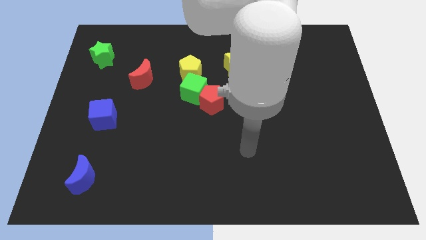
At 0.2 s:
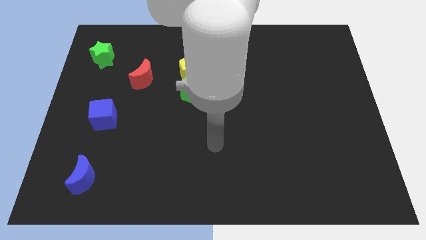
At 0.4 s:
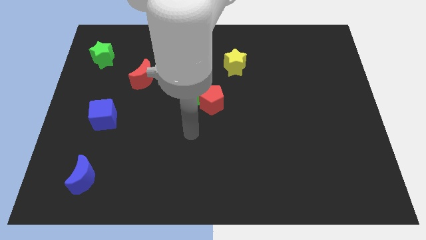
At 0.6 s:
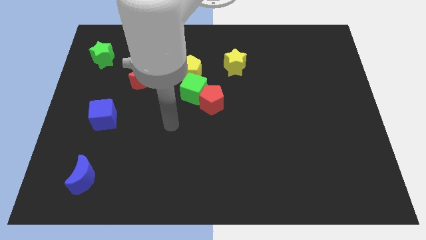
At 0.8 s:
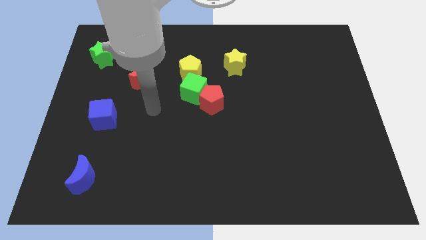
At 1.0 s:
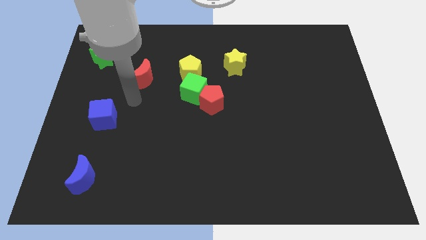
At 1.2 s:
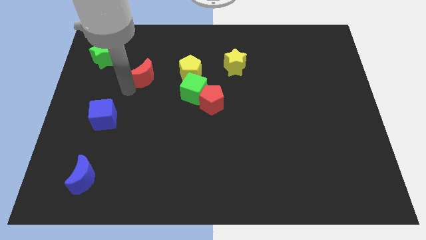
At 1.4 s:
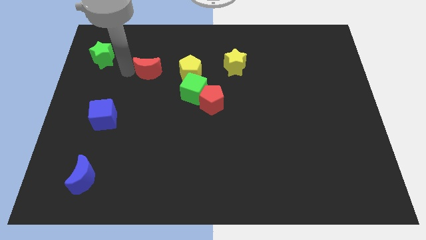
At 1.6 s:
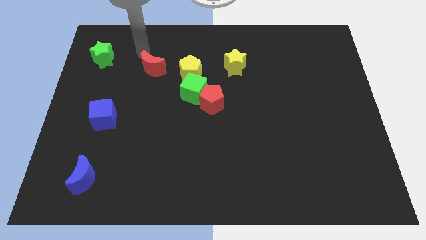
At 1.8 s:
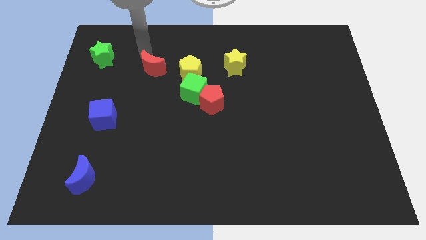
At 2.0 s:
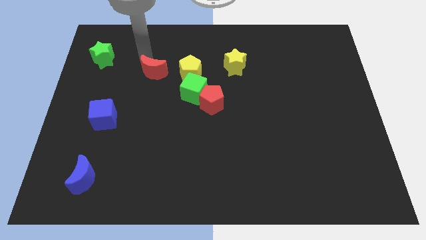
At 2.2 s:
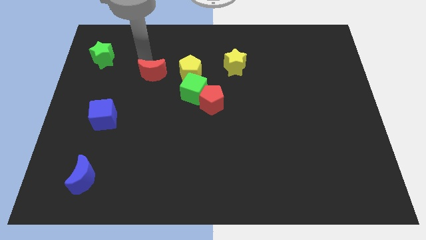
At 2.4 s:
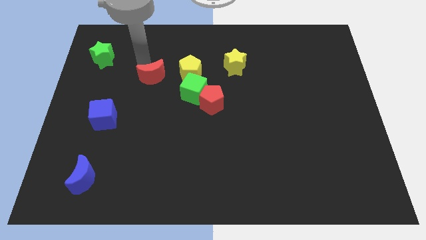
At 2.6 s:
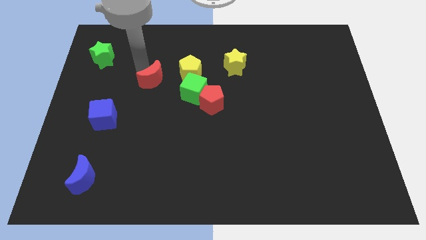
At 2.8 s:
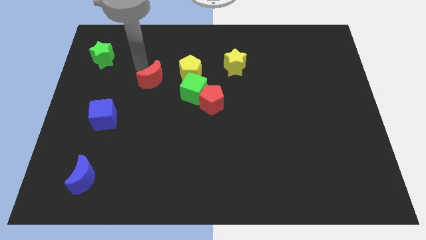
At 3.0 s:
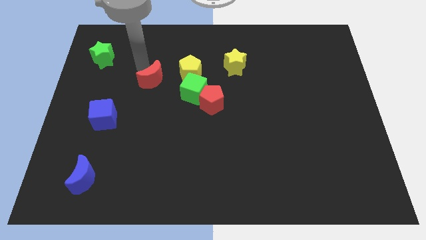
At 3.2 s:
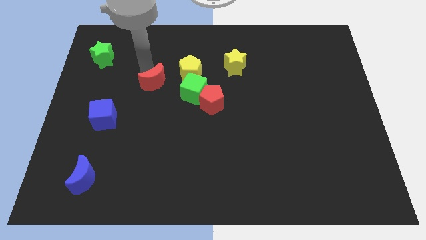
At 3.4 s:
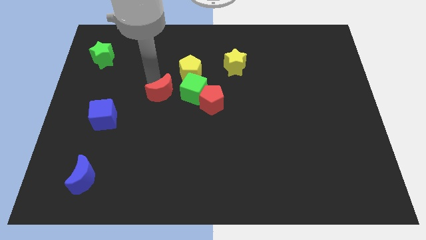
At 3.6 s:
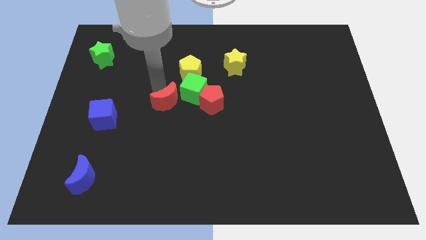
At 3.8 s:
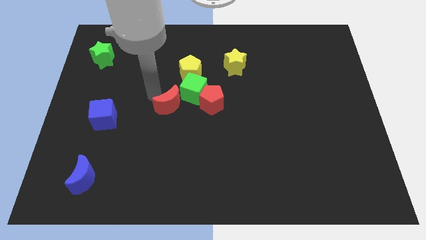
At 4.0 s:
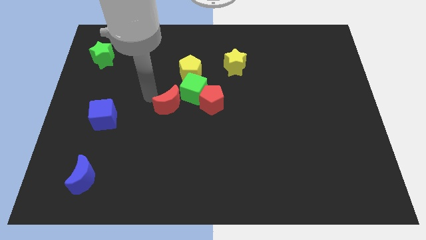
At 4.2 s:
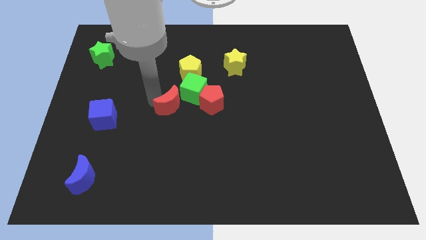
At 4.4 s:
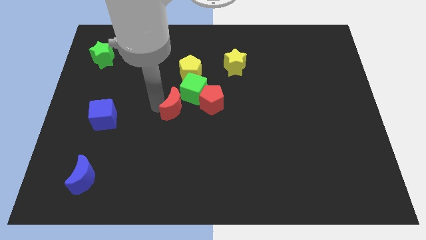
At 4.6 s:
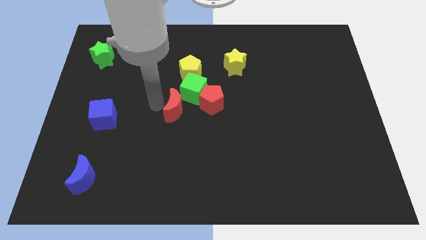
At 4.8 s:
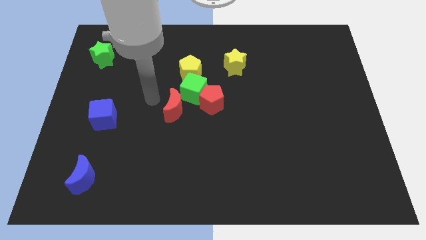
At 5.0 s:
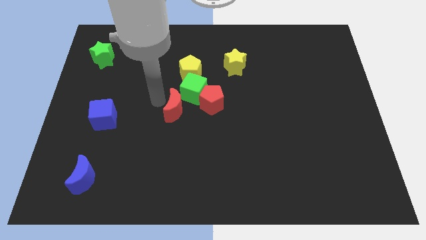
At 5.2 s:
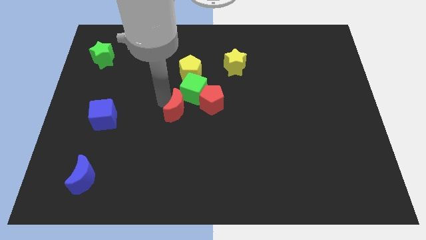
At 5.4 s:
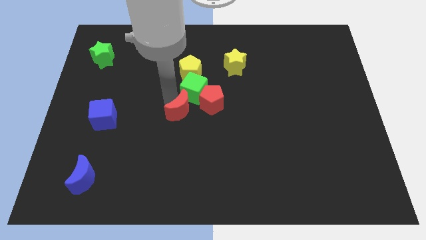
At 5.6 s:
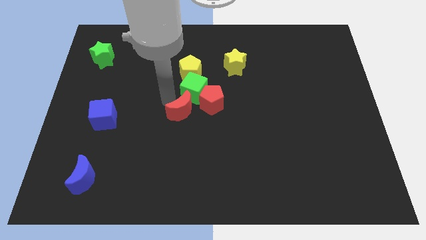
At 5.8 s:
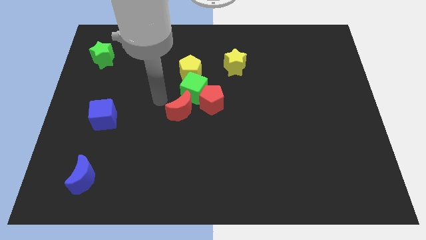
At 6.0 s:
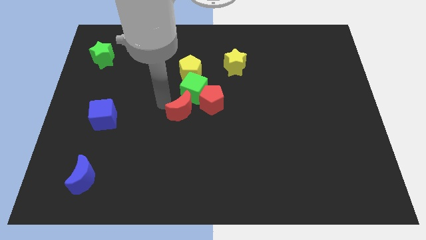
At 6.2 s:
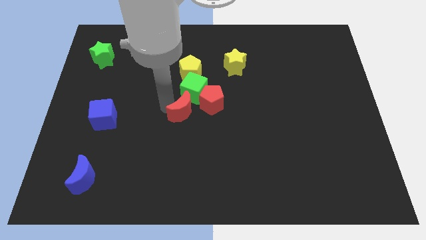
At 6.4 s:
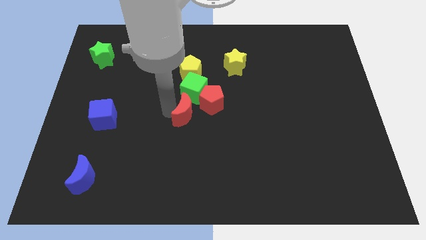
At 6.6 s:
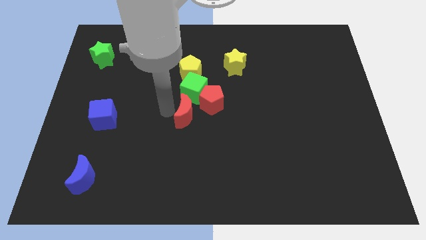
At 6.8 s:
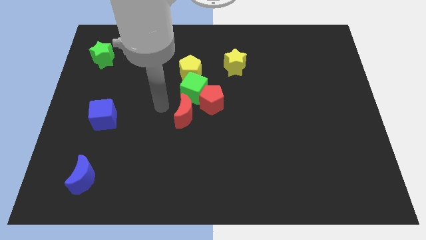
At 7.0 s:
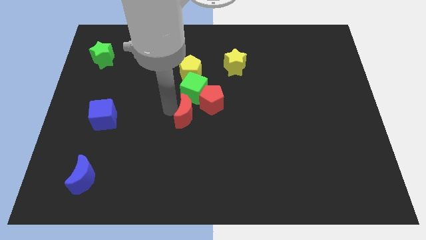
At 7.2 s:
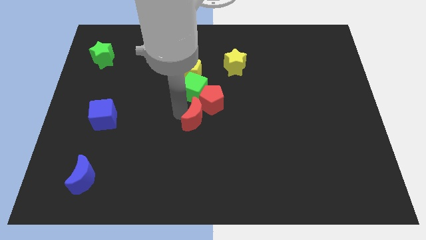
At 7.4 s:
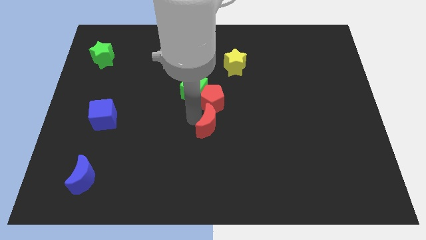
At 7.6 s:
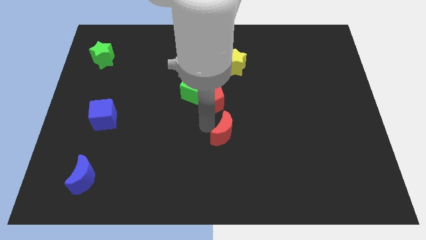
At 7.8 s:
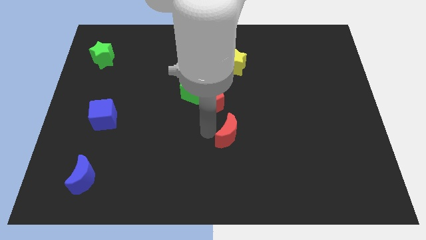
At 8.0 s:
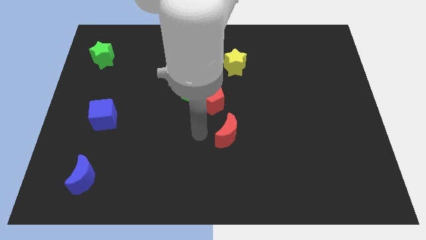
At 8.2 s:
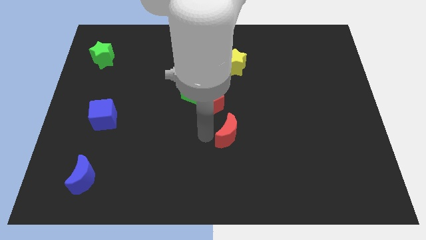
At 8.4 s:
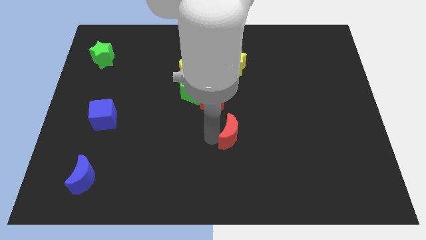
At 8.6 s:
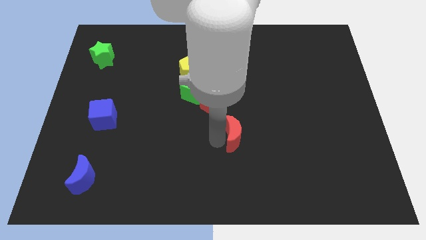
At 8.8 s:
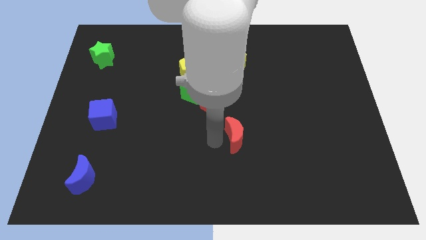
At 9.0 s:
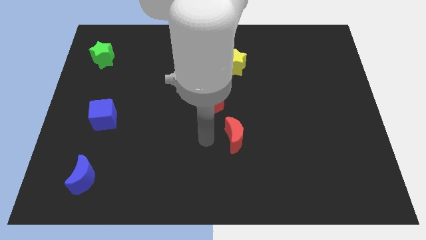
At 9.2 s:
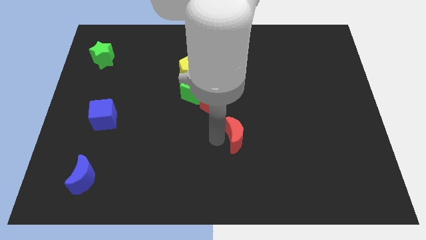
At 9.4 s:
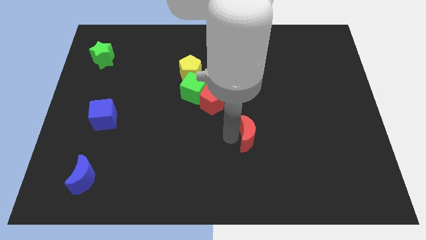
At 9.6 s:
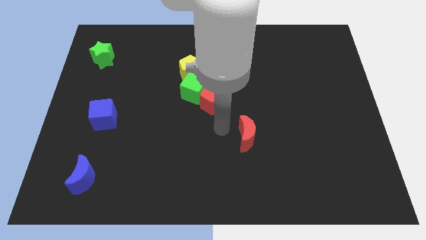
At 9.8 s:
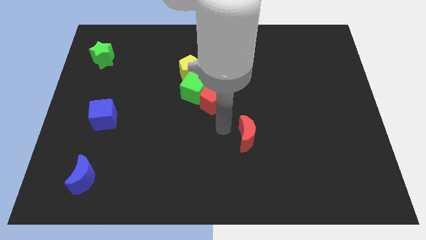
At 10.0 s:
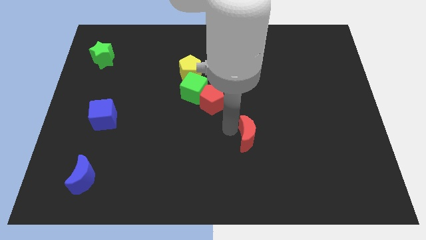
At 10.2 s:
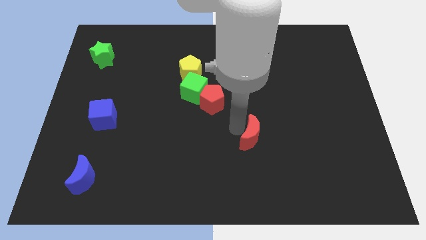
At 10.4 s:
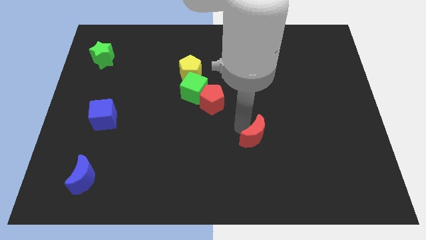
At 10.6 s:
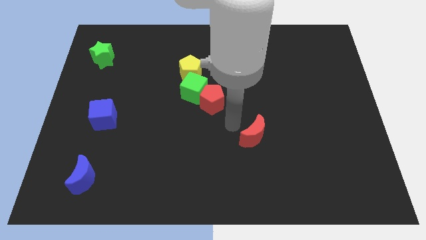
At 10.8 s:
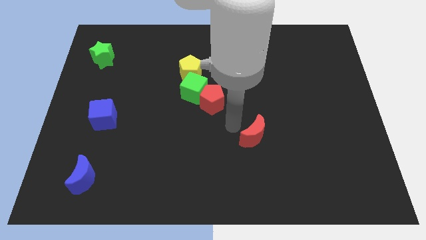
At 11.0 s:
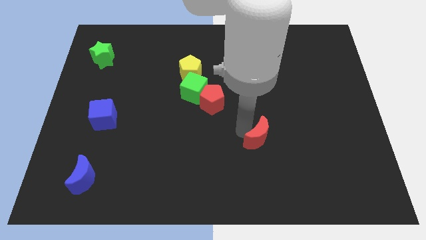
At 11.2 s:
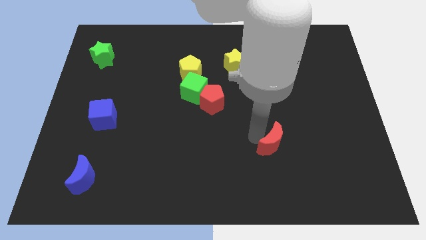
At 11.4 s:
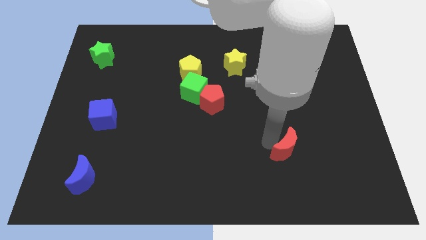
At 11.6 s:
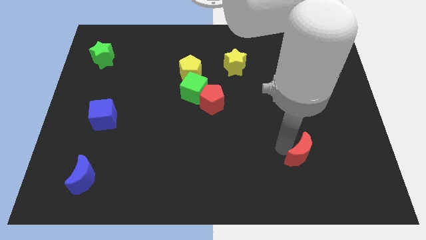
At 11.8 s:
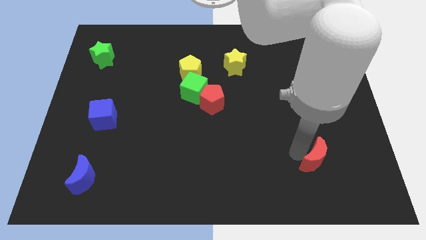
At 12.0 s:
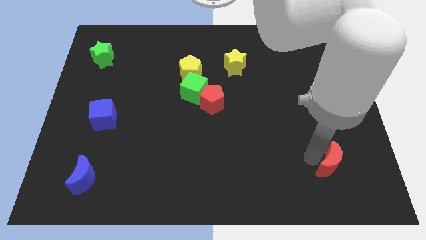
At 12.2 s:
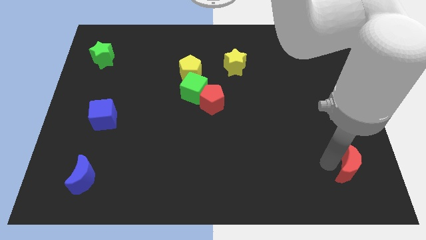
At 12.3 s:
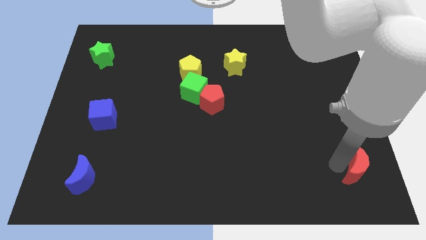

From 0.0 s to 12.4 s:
slide the red moon to the bottom right corner
